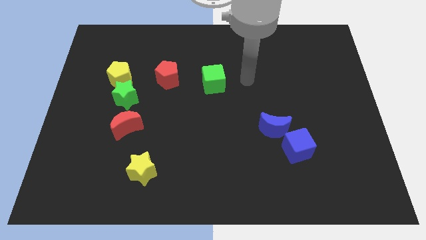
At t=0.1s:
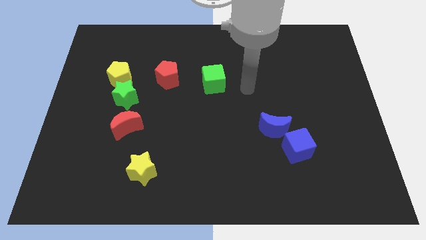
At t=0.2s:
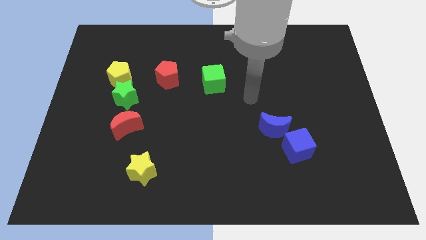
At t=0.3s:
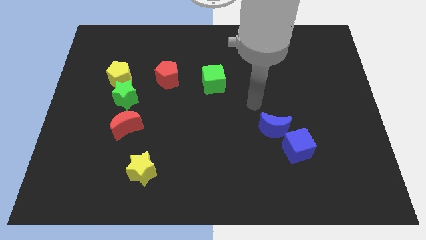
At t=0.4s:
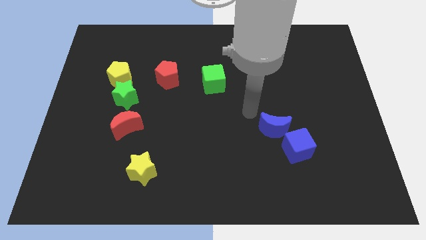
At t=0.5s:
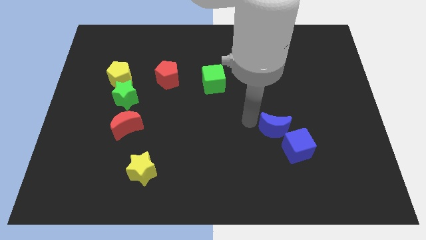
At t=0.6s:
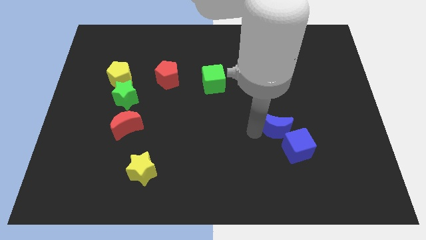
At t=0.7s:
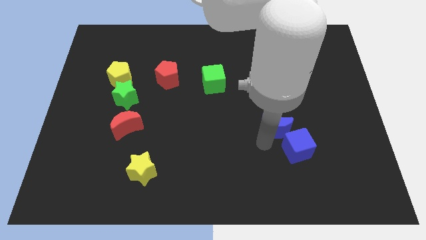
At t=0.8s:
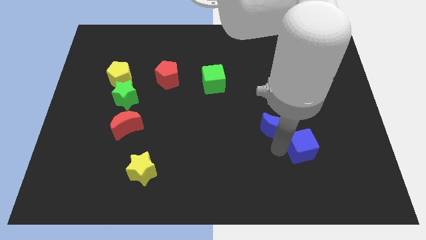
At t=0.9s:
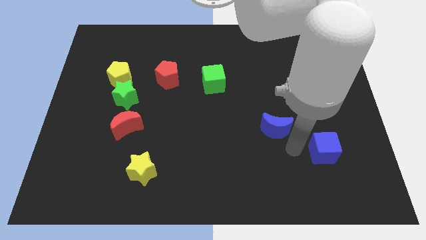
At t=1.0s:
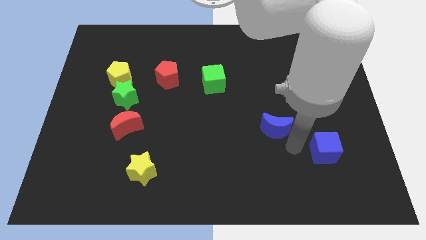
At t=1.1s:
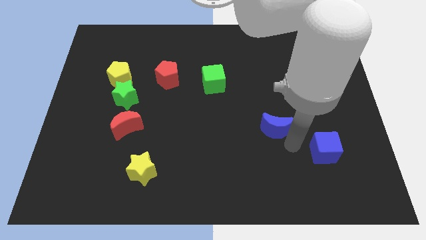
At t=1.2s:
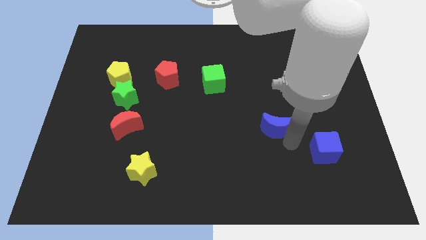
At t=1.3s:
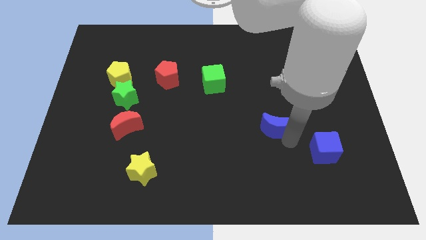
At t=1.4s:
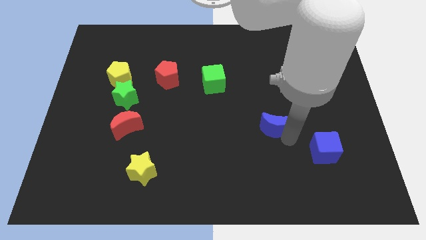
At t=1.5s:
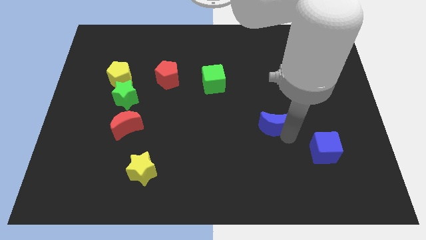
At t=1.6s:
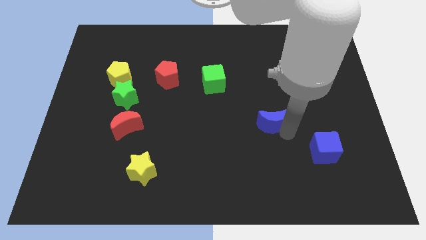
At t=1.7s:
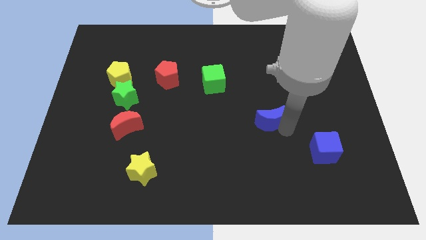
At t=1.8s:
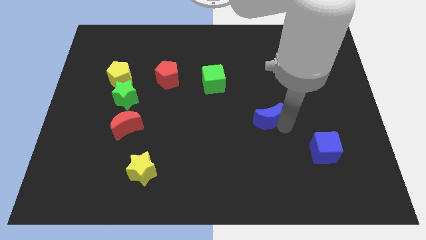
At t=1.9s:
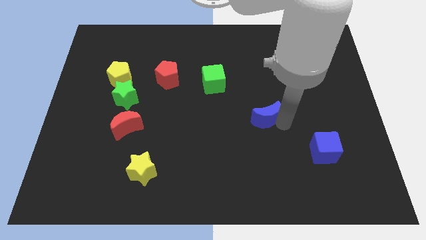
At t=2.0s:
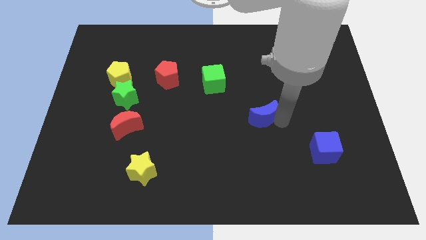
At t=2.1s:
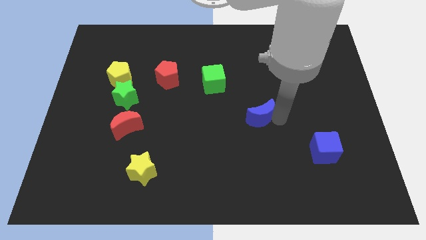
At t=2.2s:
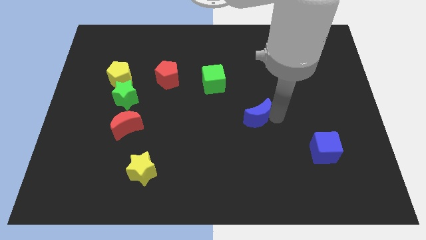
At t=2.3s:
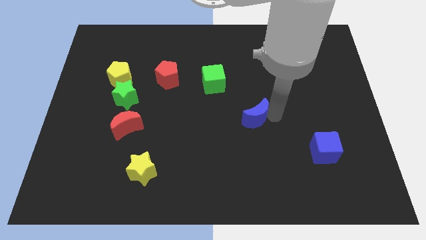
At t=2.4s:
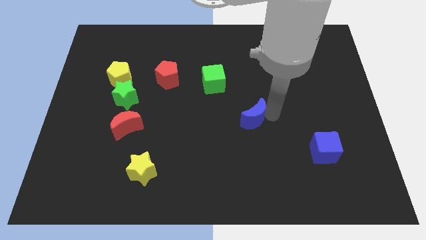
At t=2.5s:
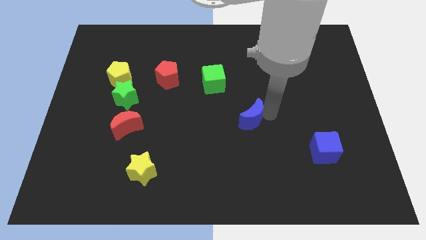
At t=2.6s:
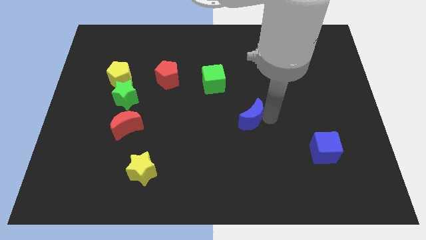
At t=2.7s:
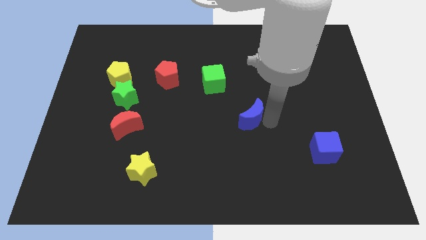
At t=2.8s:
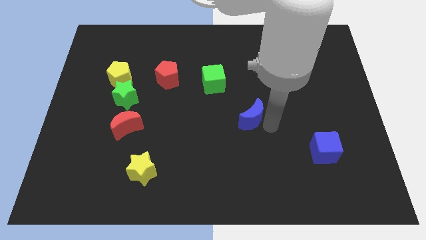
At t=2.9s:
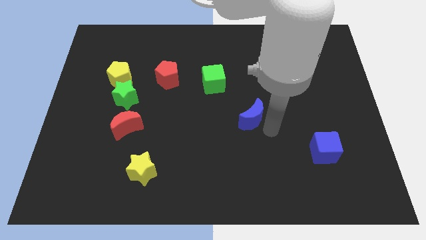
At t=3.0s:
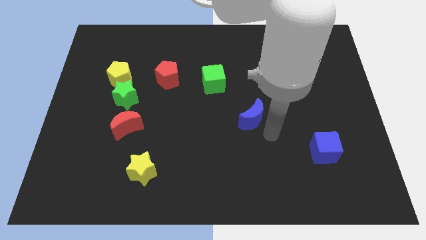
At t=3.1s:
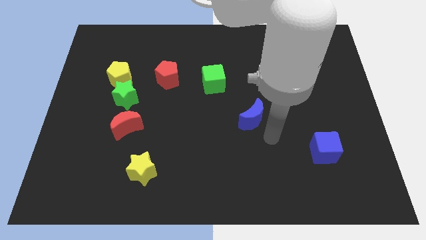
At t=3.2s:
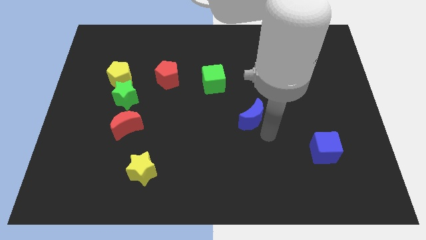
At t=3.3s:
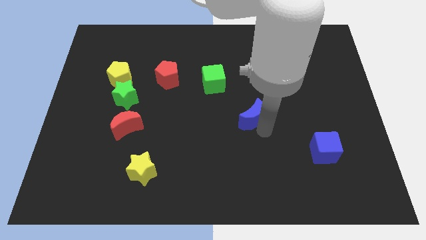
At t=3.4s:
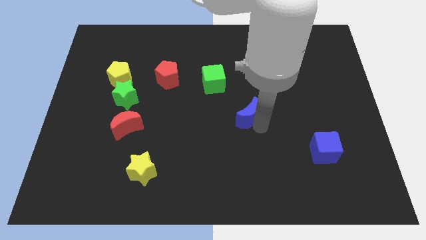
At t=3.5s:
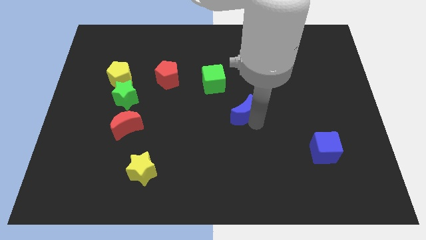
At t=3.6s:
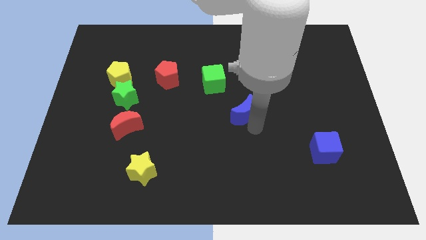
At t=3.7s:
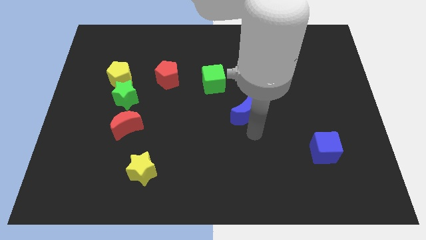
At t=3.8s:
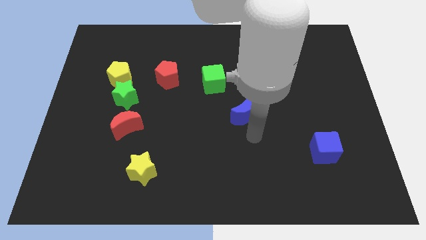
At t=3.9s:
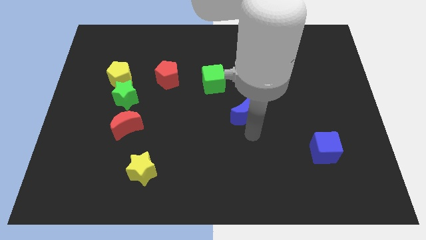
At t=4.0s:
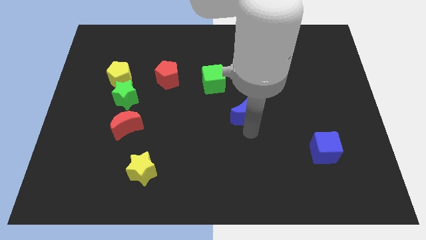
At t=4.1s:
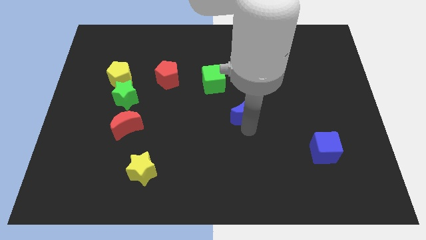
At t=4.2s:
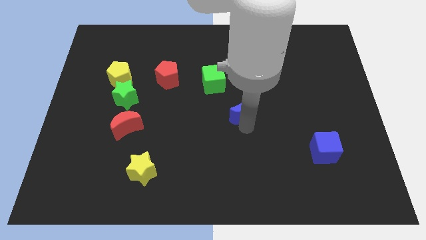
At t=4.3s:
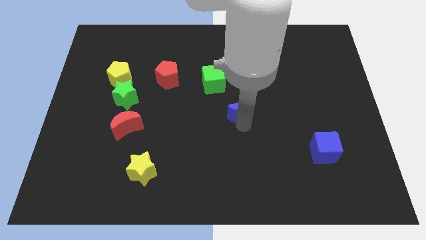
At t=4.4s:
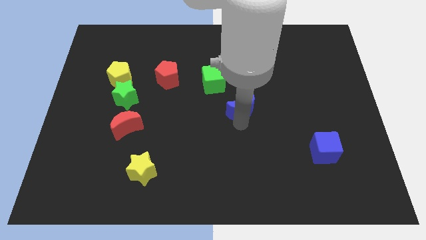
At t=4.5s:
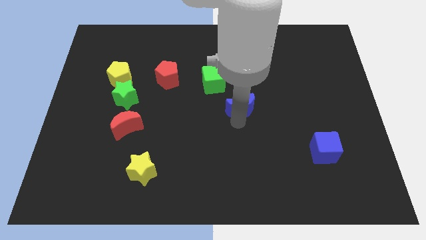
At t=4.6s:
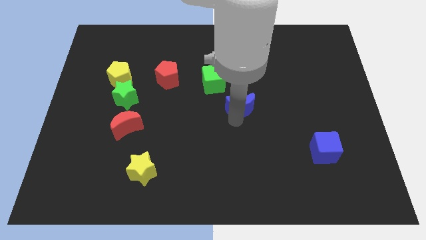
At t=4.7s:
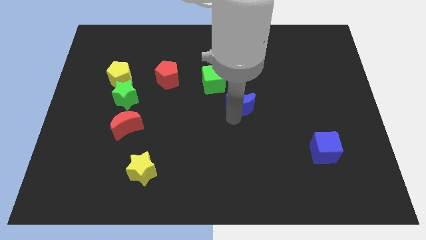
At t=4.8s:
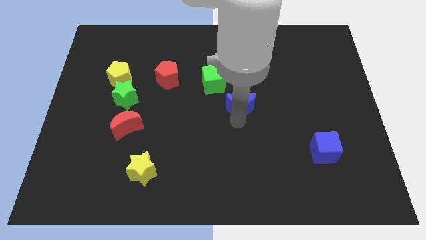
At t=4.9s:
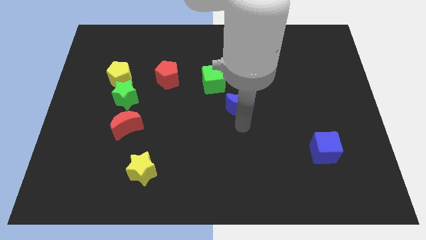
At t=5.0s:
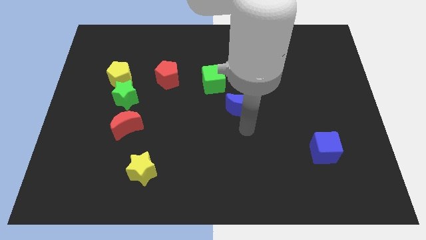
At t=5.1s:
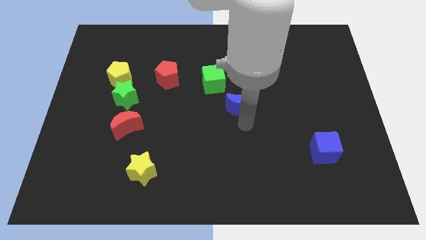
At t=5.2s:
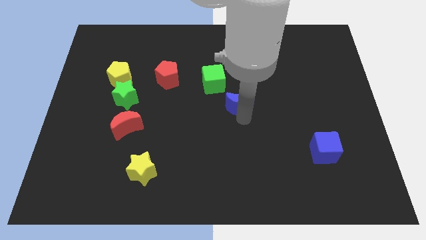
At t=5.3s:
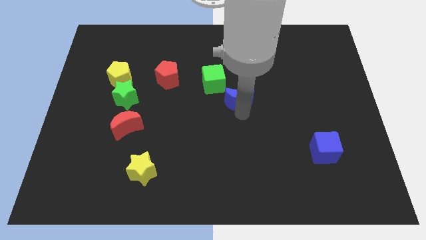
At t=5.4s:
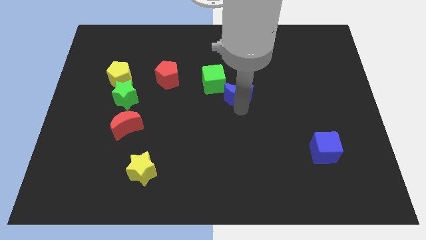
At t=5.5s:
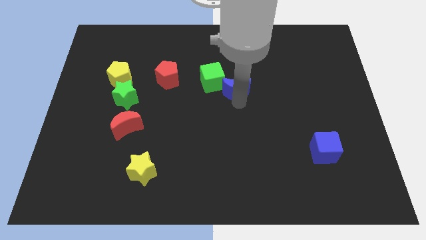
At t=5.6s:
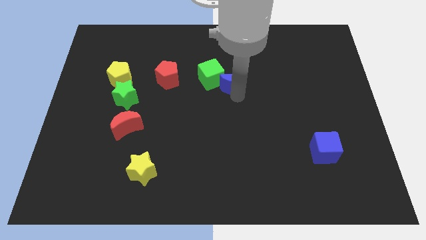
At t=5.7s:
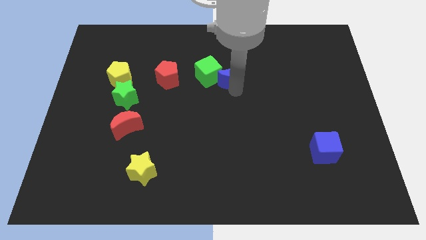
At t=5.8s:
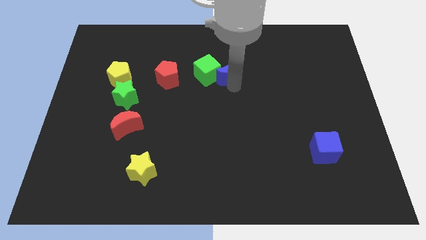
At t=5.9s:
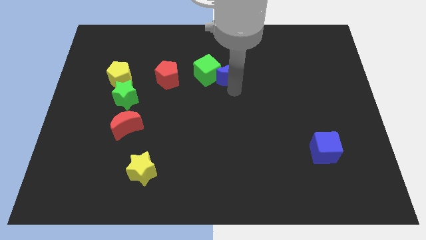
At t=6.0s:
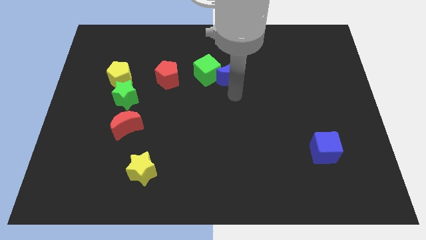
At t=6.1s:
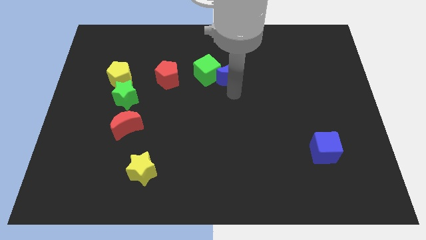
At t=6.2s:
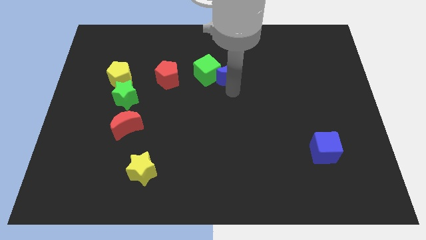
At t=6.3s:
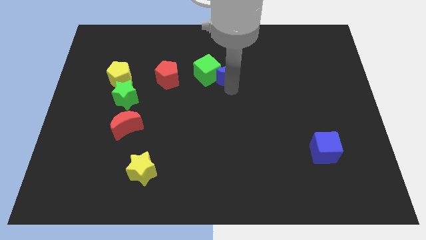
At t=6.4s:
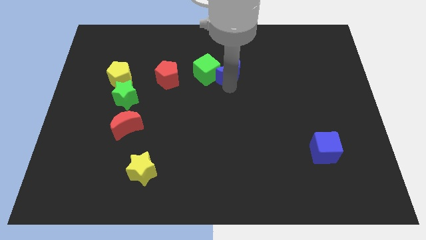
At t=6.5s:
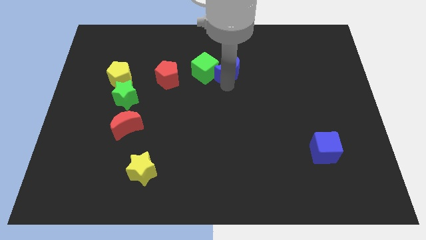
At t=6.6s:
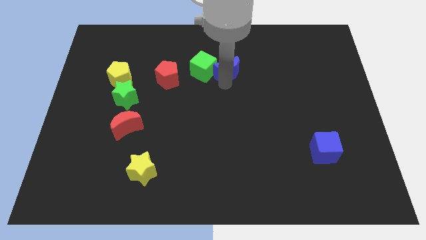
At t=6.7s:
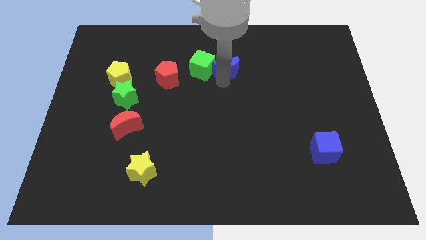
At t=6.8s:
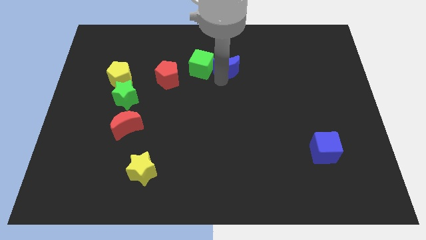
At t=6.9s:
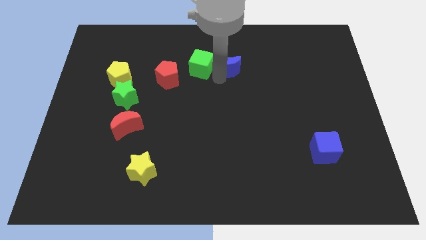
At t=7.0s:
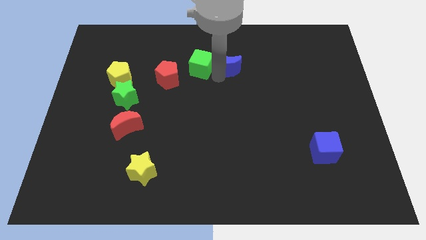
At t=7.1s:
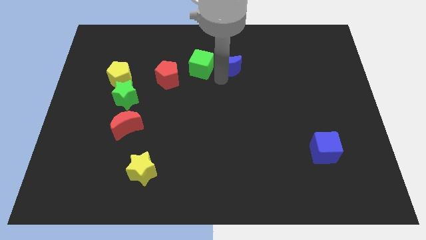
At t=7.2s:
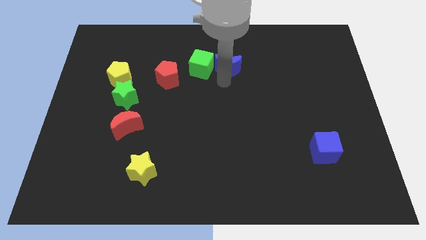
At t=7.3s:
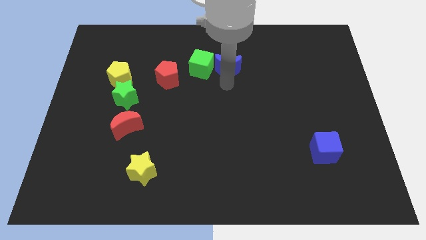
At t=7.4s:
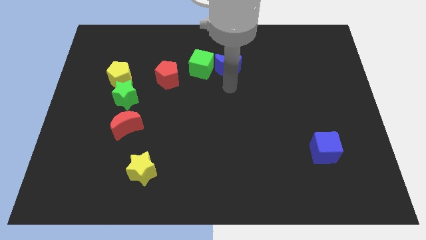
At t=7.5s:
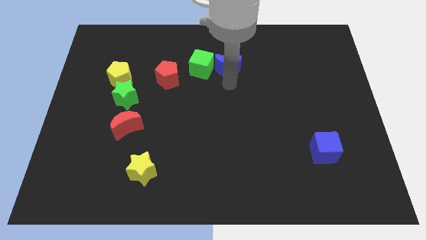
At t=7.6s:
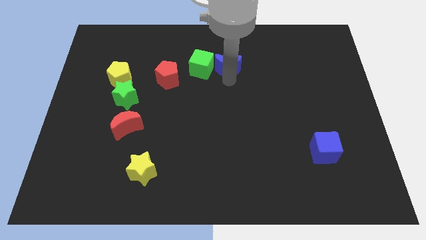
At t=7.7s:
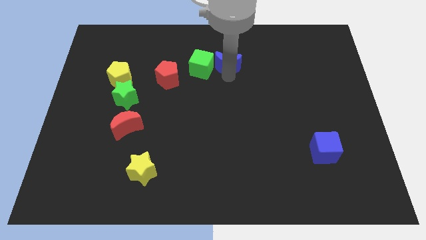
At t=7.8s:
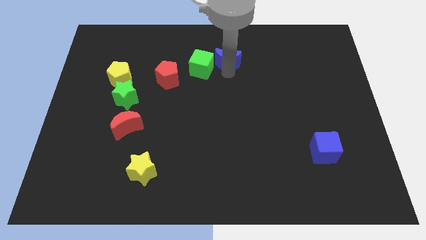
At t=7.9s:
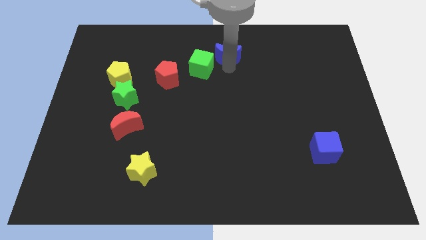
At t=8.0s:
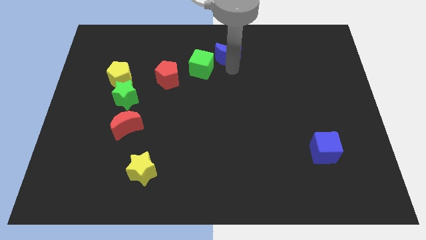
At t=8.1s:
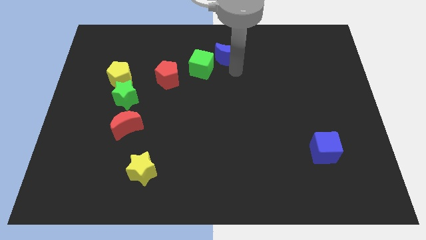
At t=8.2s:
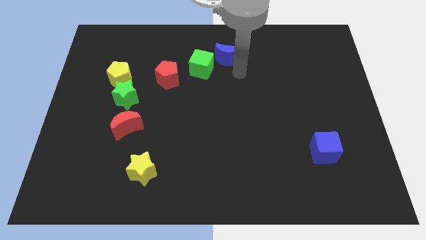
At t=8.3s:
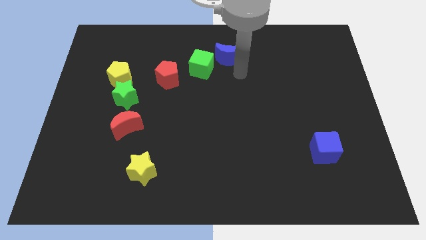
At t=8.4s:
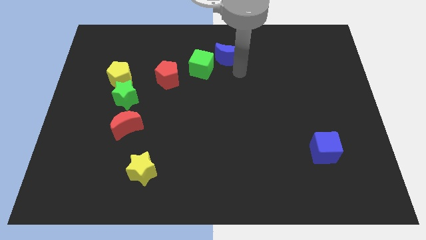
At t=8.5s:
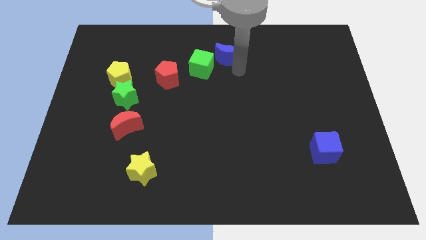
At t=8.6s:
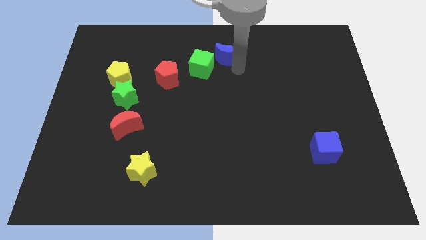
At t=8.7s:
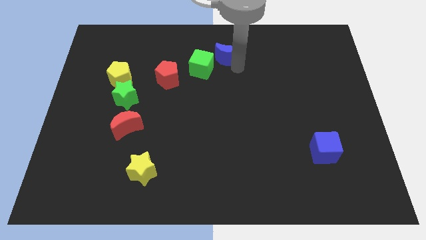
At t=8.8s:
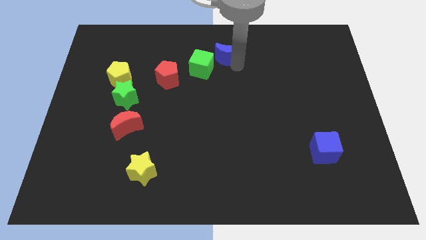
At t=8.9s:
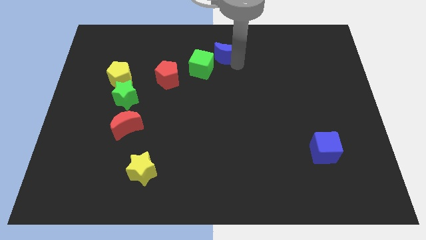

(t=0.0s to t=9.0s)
push the blue moon to the top side
